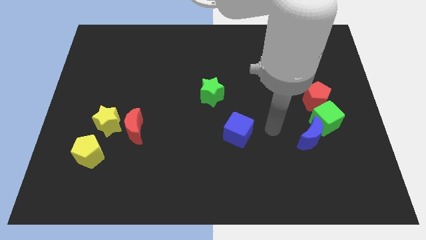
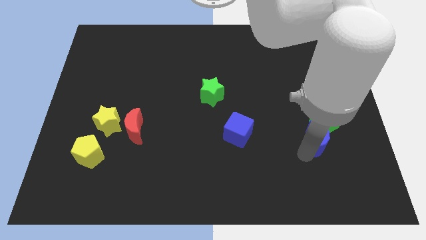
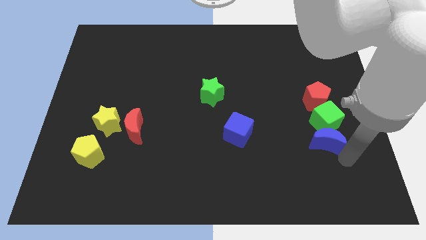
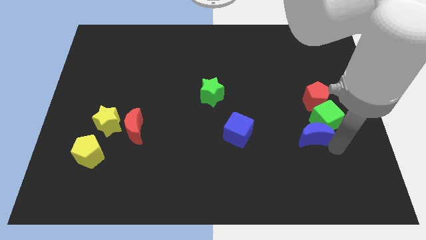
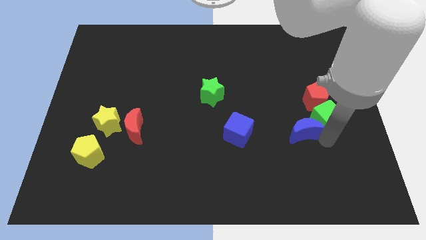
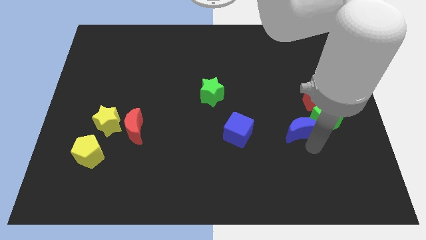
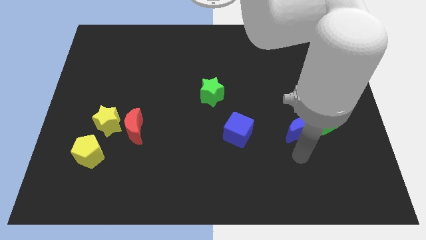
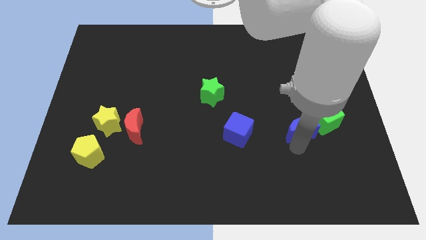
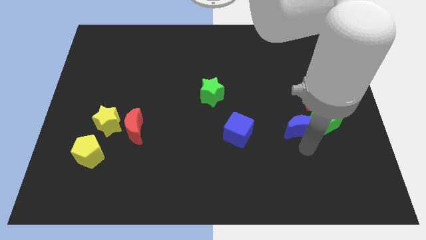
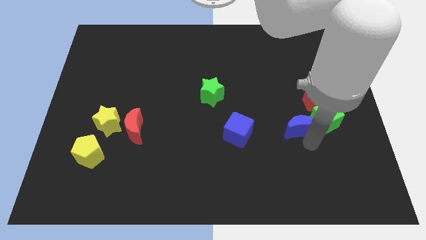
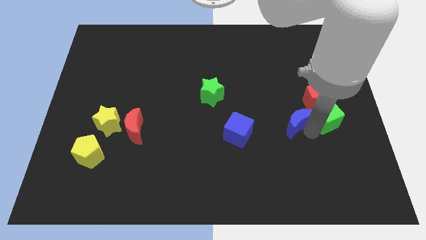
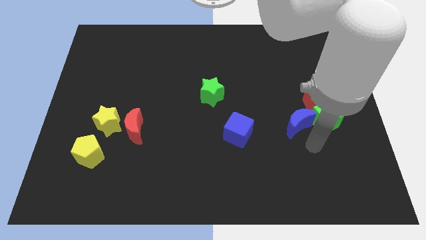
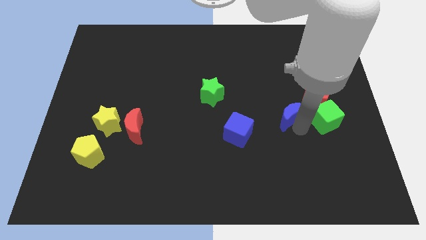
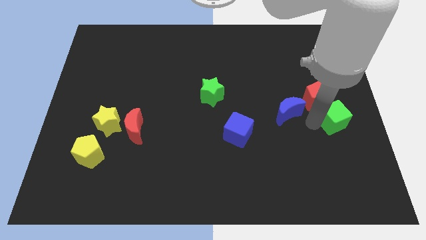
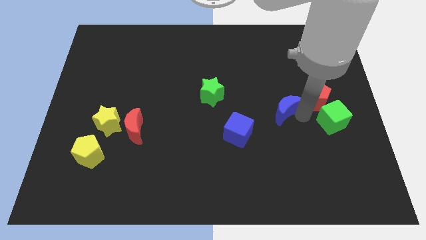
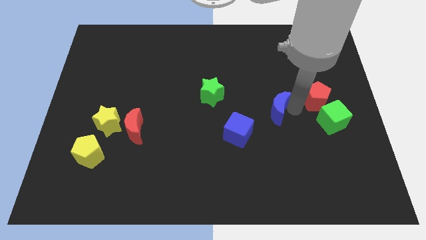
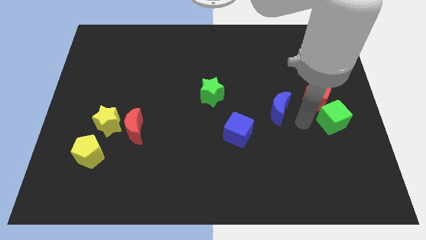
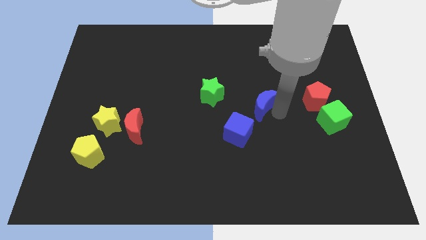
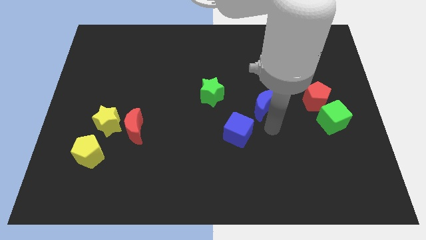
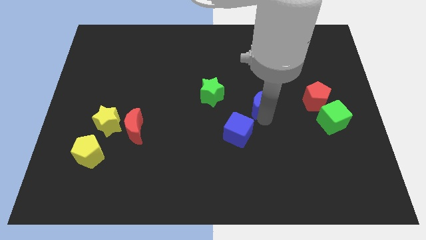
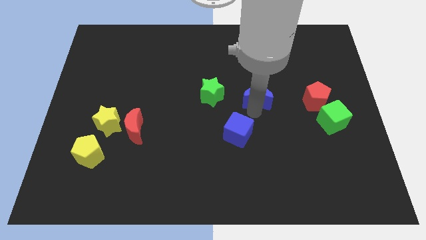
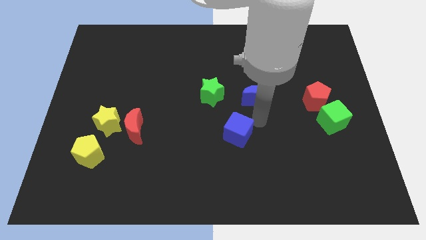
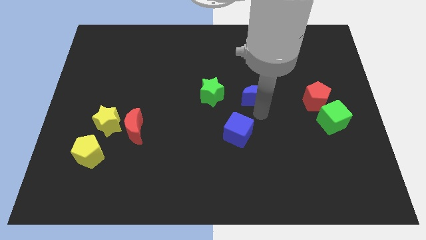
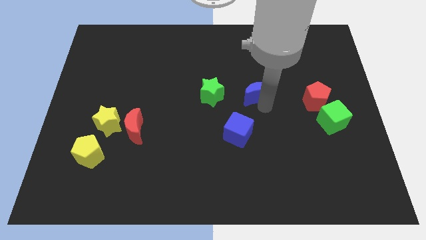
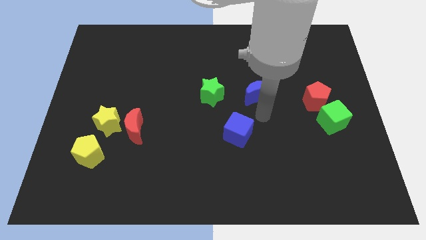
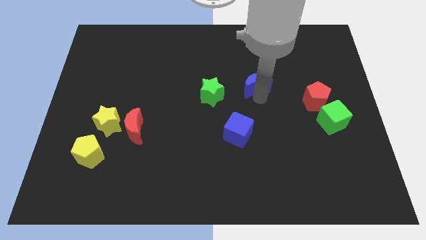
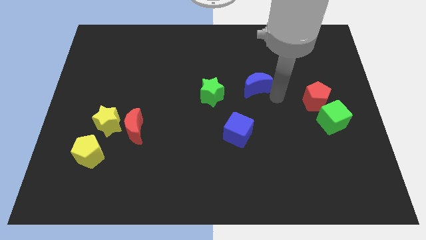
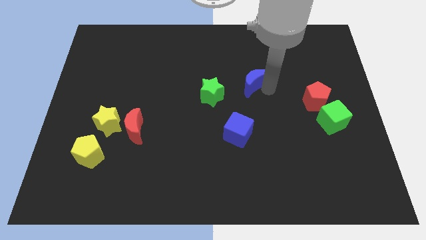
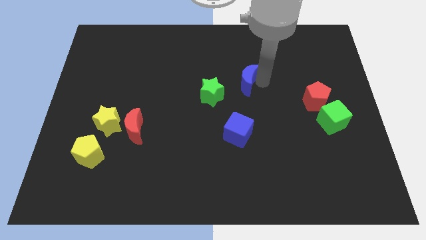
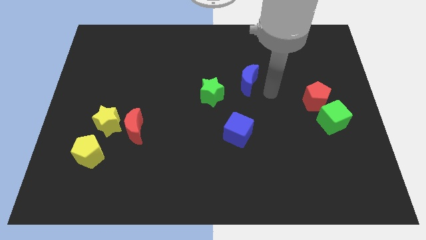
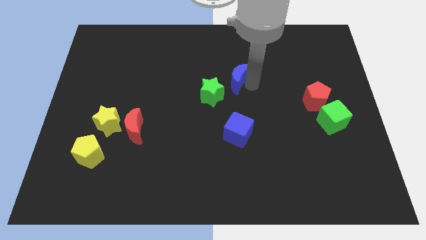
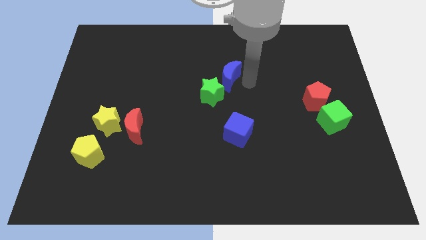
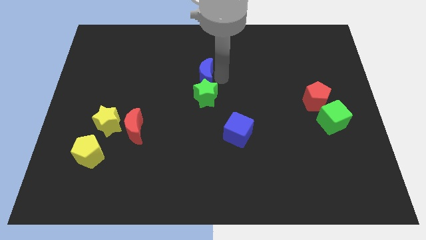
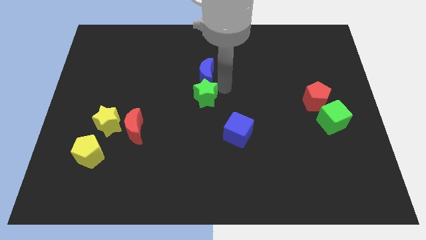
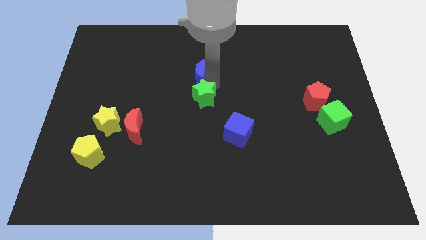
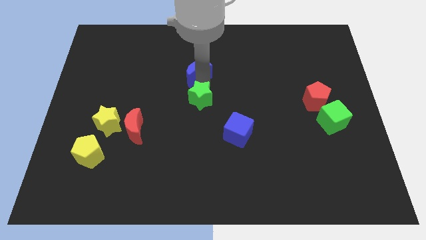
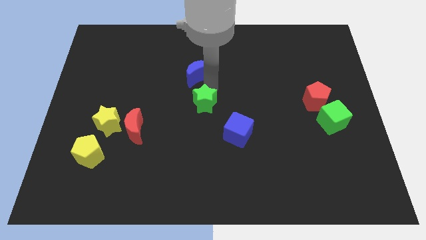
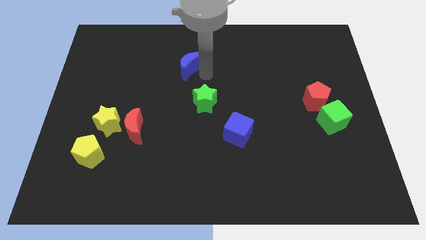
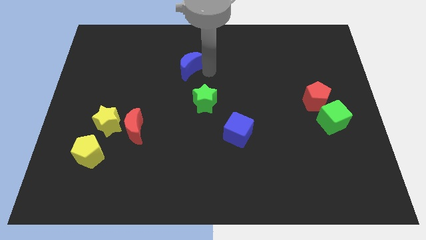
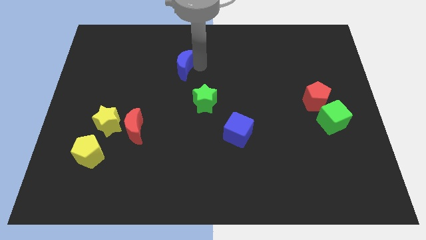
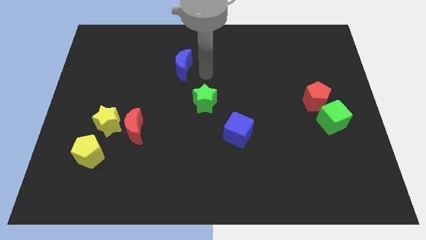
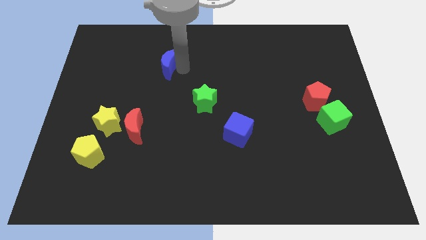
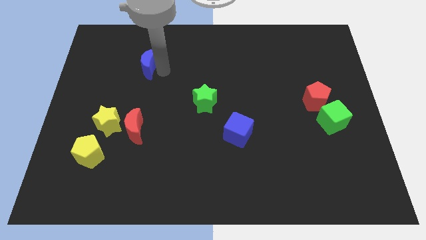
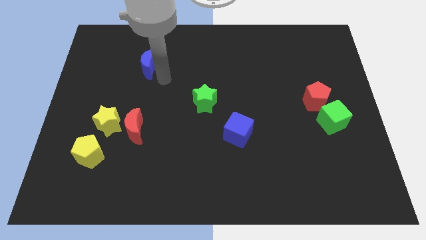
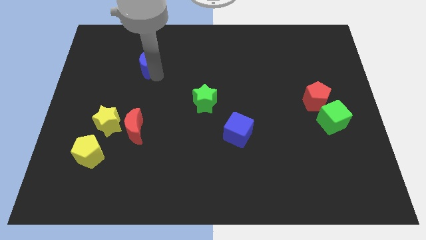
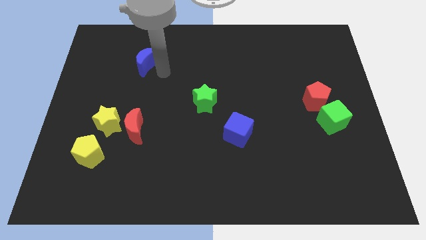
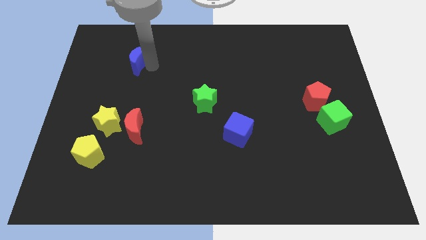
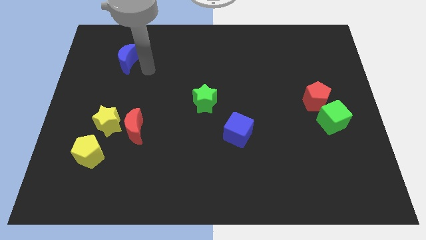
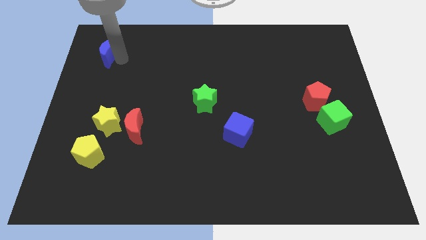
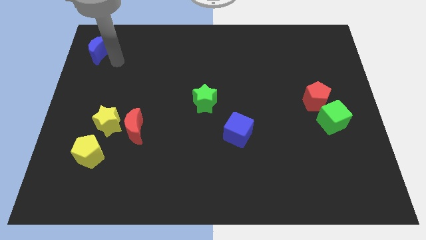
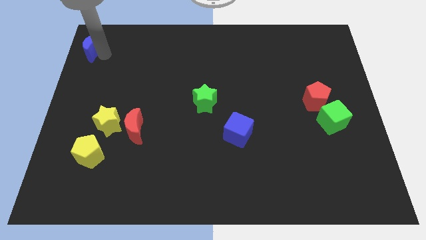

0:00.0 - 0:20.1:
slide the blue moon to the top left corner

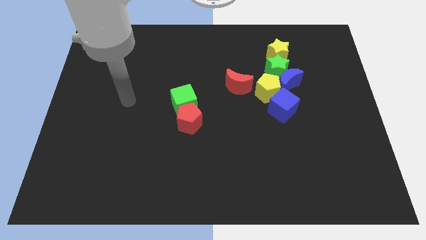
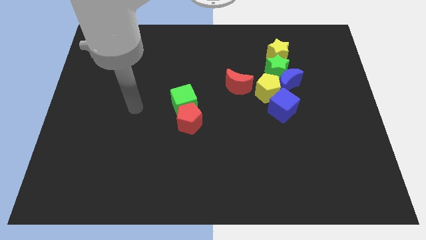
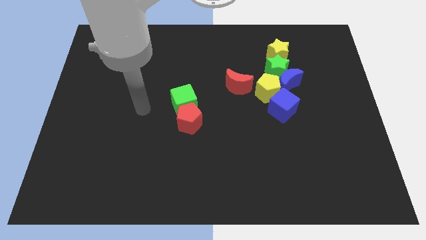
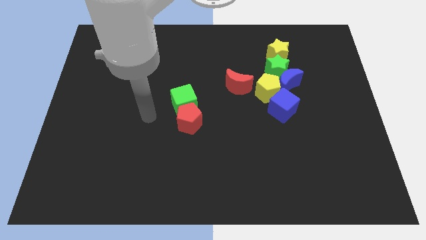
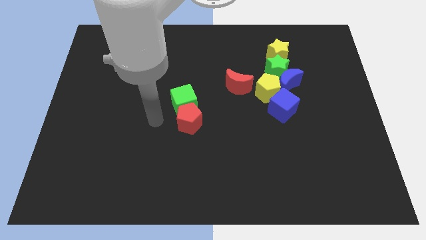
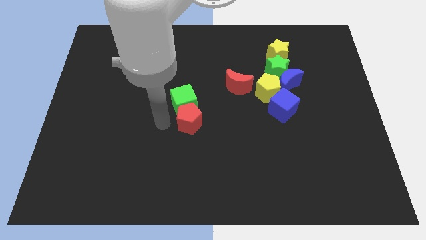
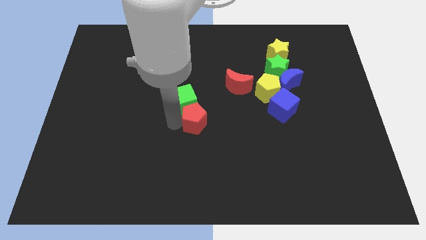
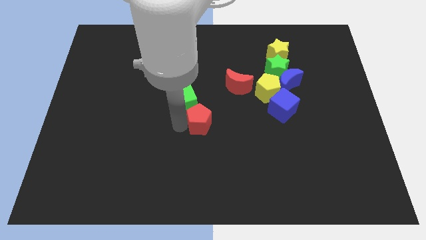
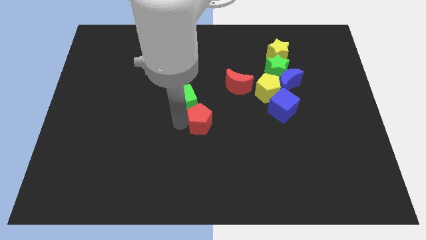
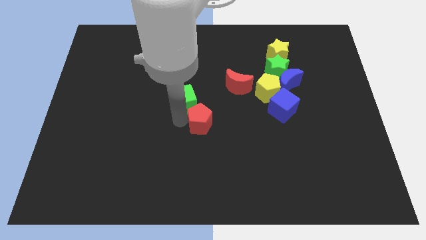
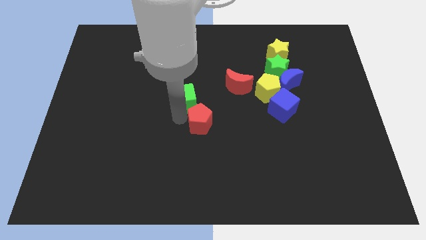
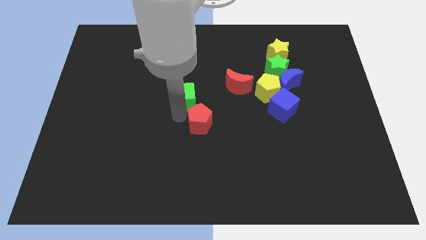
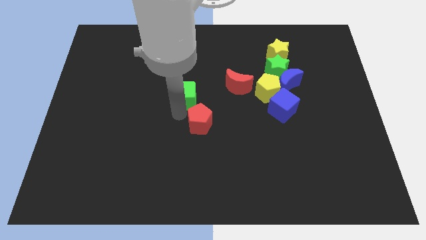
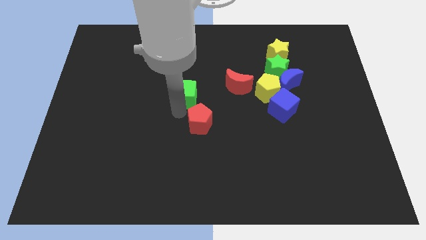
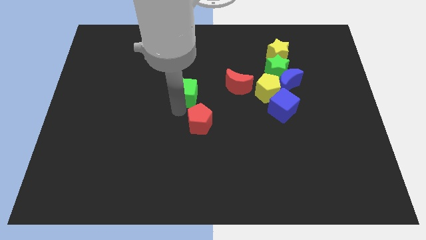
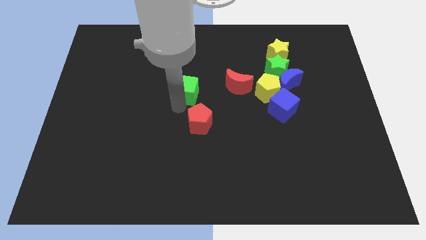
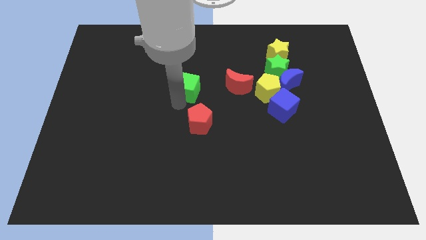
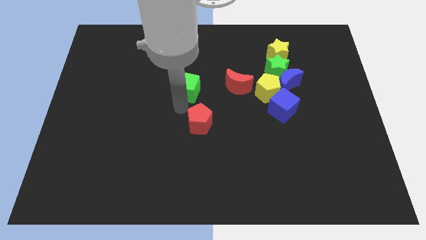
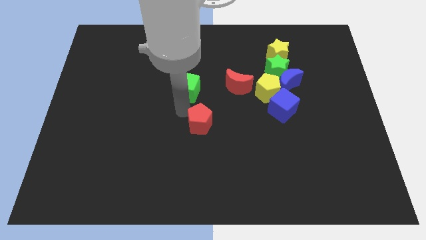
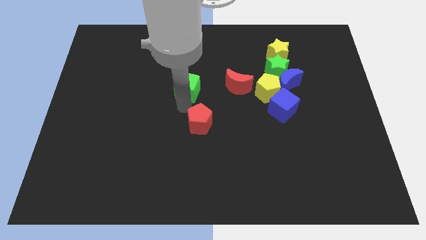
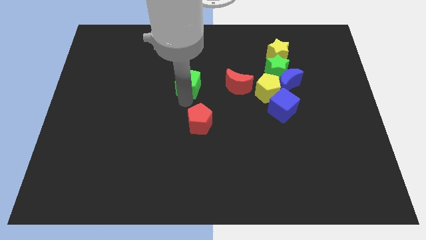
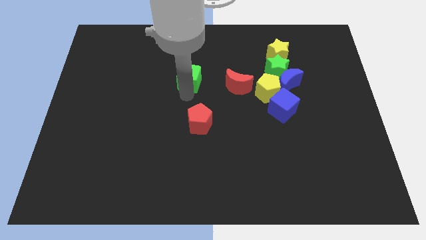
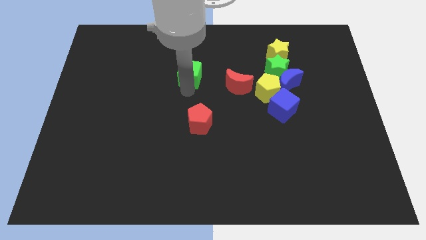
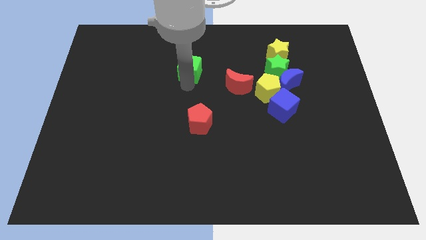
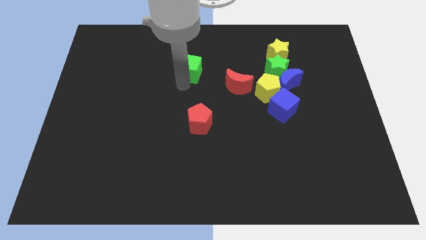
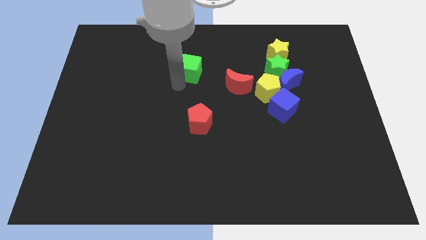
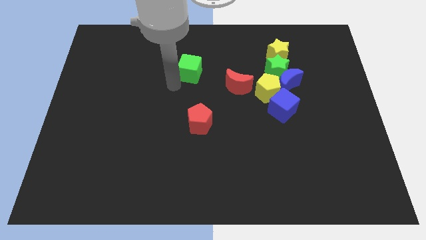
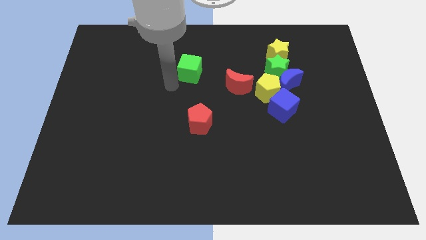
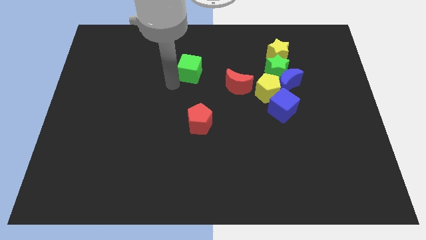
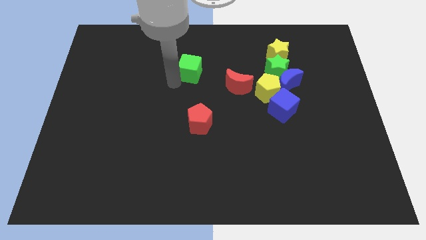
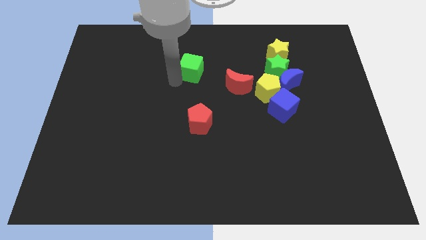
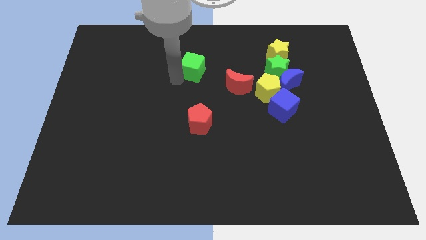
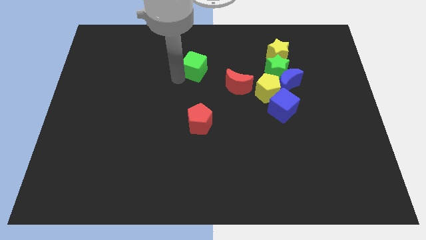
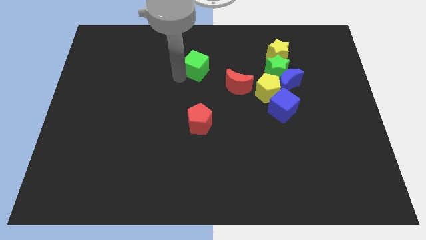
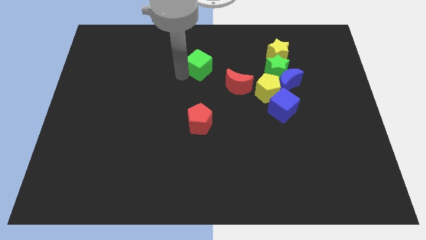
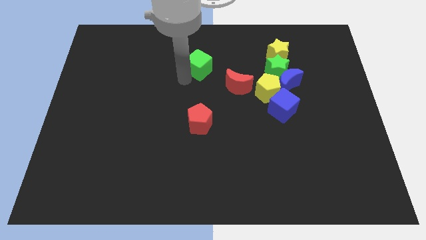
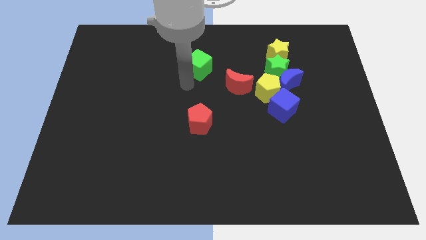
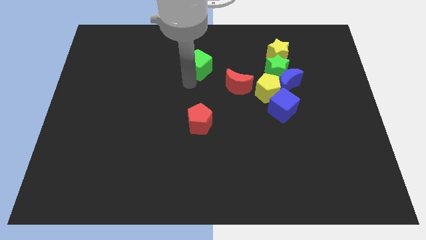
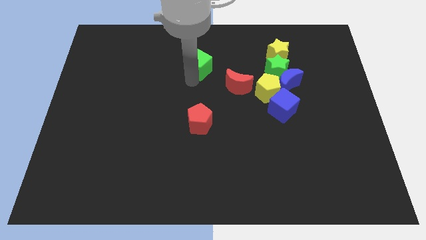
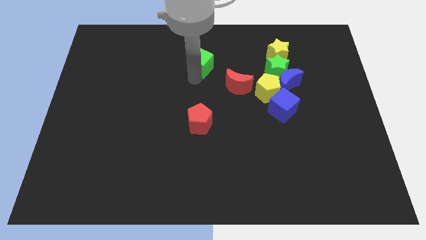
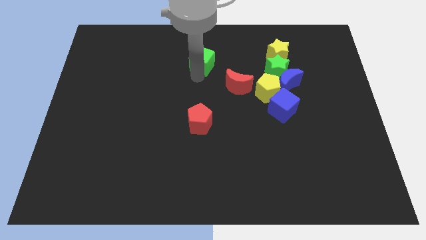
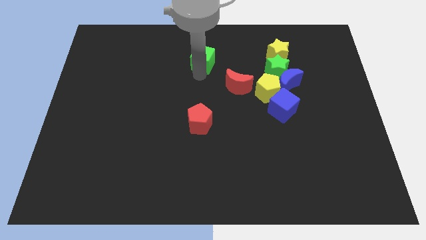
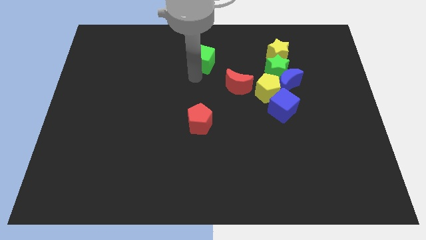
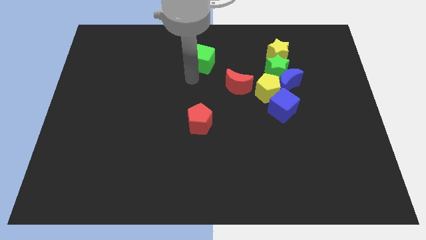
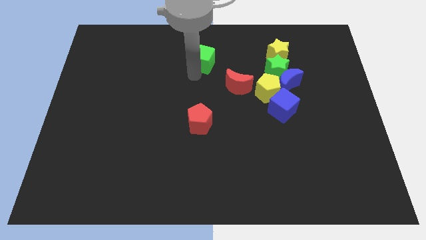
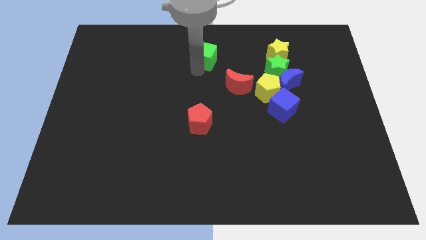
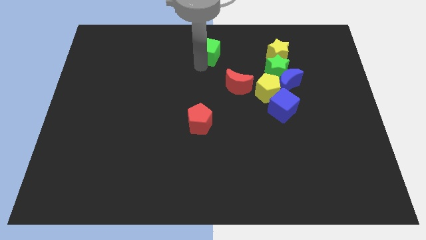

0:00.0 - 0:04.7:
push the green cube to the top
